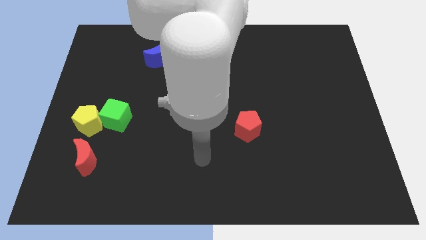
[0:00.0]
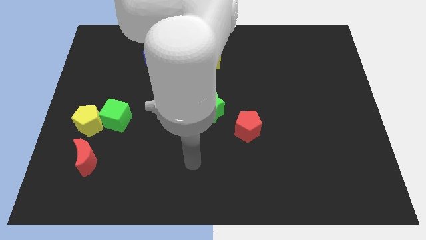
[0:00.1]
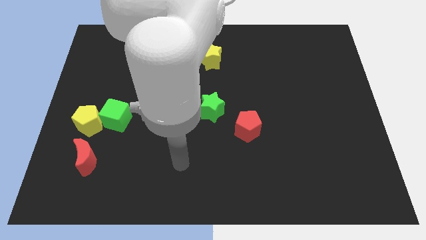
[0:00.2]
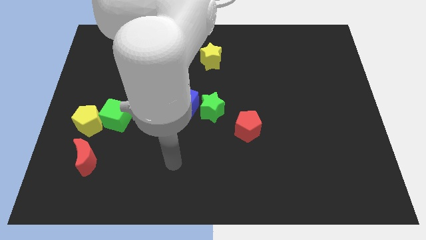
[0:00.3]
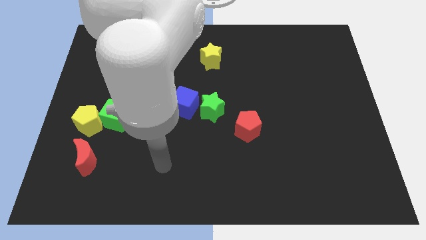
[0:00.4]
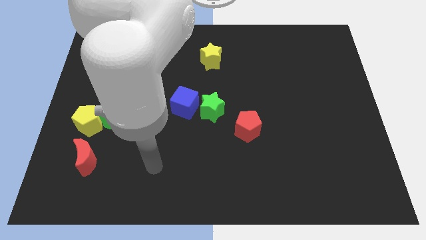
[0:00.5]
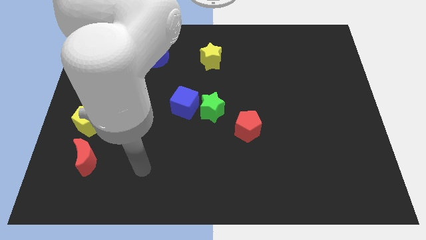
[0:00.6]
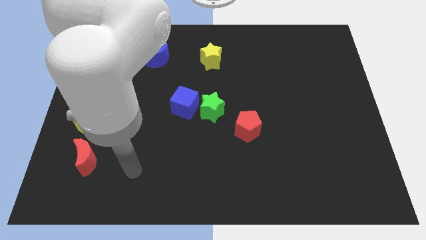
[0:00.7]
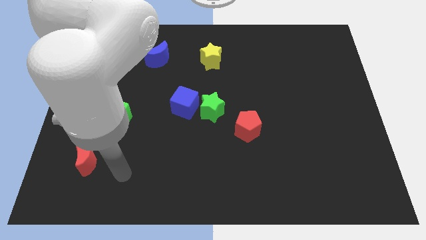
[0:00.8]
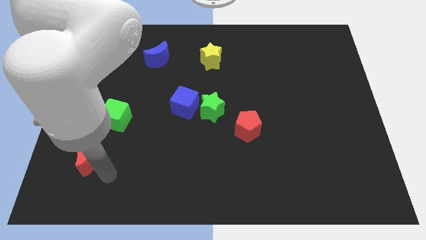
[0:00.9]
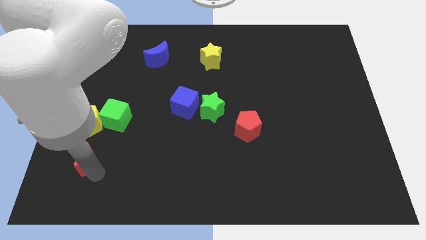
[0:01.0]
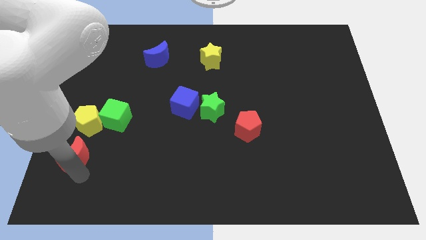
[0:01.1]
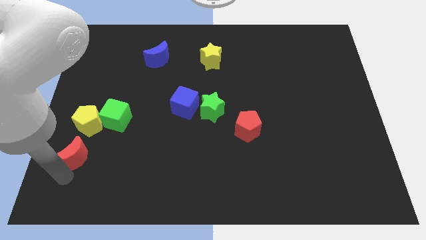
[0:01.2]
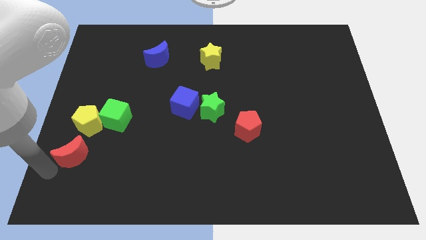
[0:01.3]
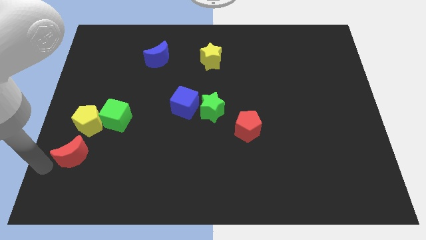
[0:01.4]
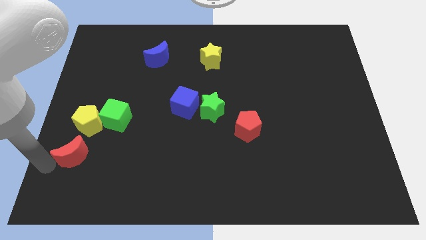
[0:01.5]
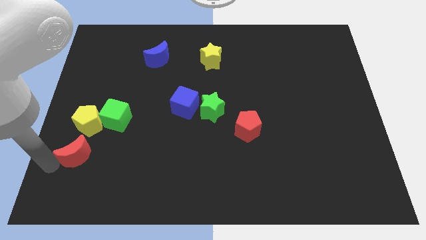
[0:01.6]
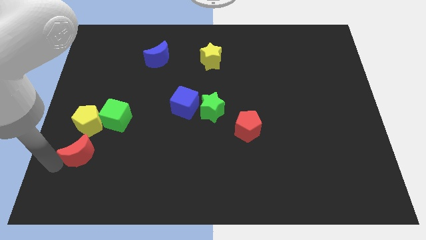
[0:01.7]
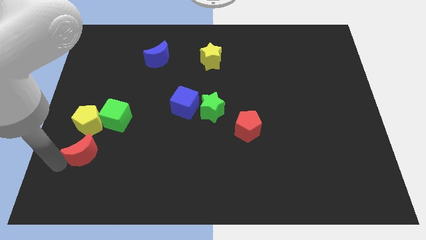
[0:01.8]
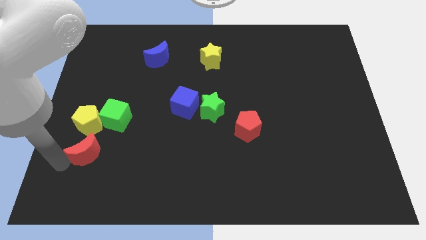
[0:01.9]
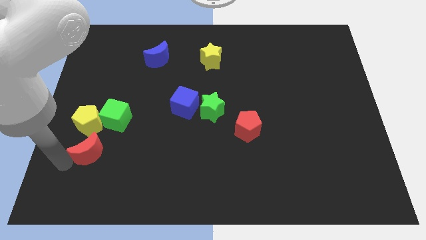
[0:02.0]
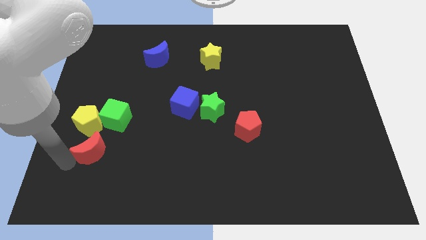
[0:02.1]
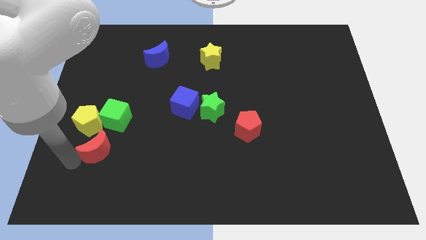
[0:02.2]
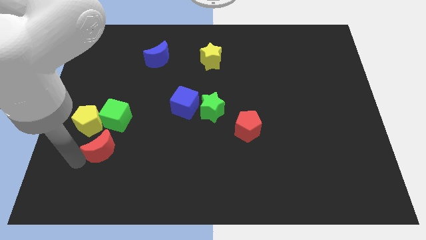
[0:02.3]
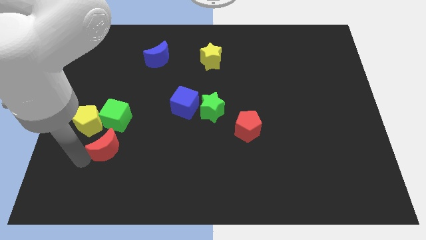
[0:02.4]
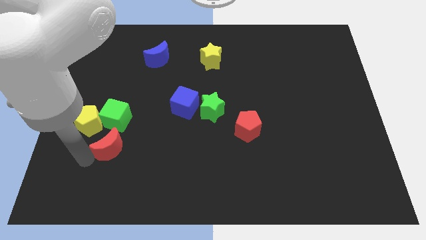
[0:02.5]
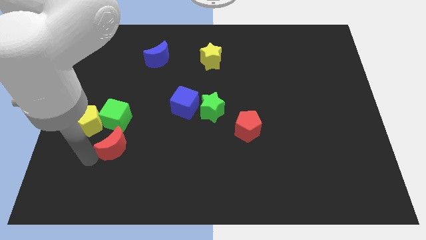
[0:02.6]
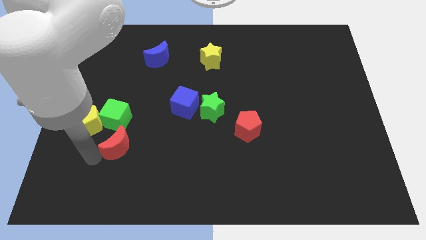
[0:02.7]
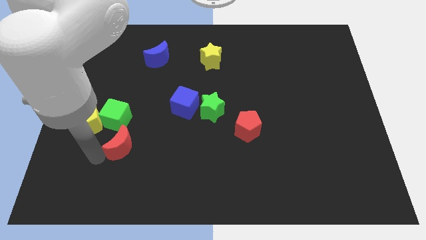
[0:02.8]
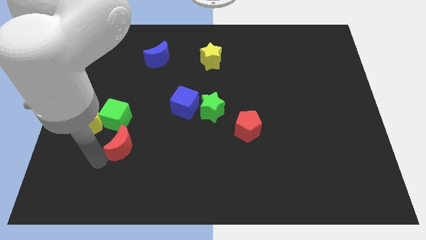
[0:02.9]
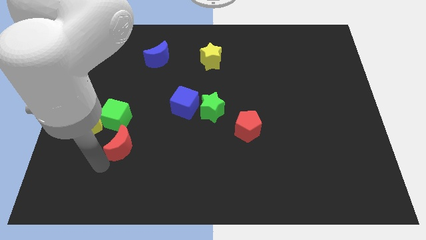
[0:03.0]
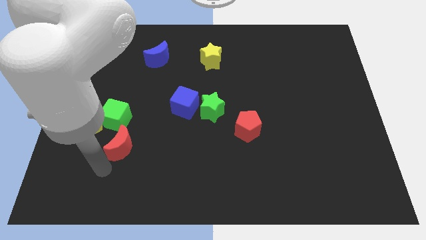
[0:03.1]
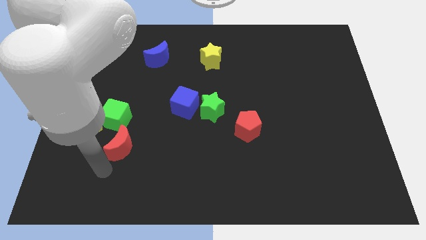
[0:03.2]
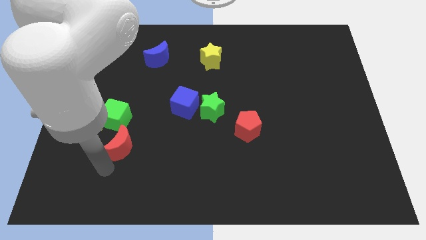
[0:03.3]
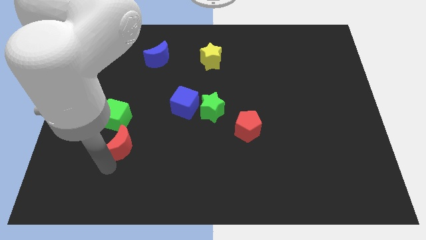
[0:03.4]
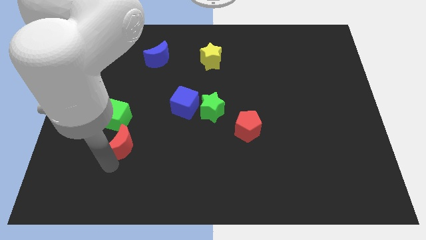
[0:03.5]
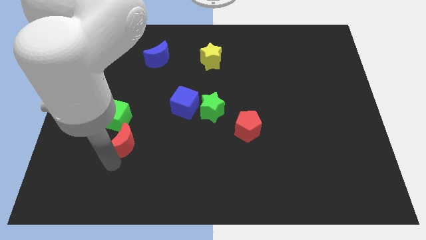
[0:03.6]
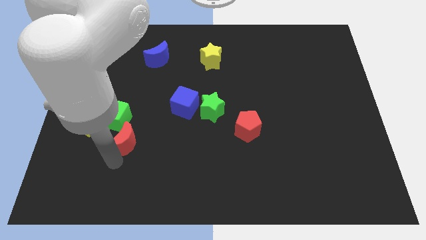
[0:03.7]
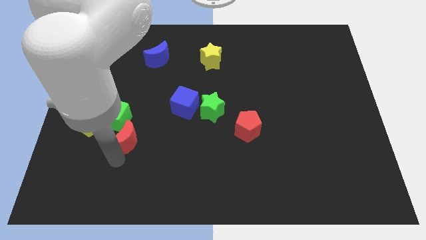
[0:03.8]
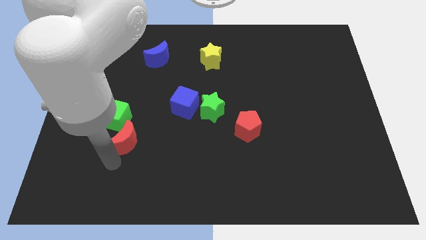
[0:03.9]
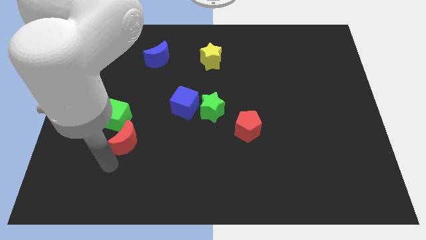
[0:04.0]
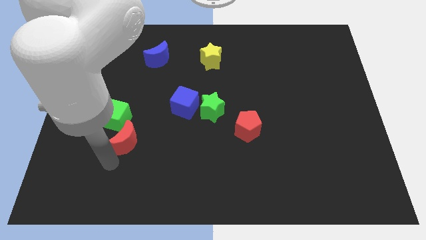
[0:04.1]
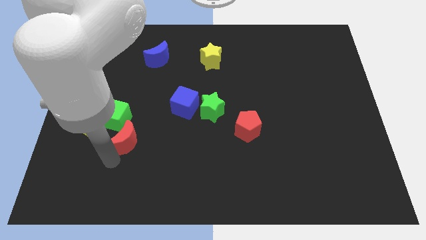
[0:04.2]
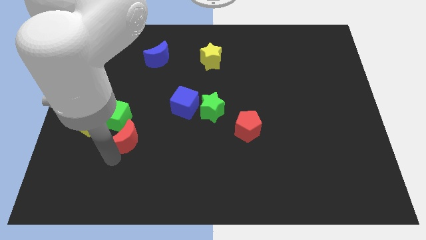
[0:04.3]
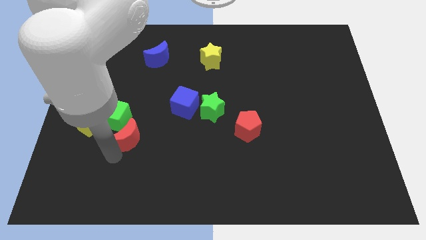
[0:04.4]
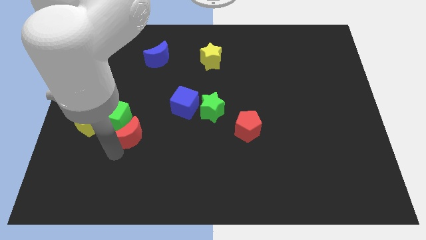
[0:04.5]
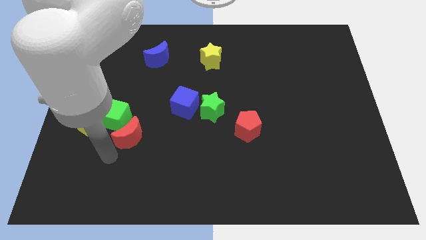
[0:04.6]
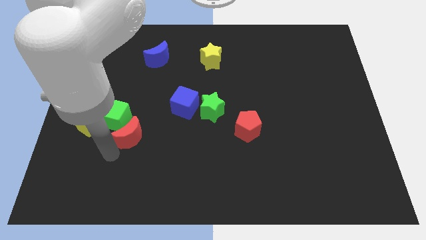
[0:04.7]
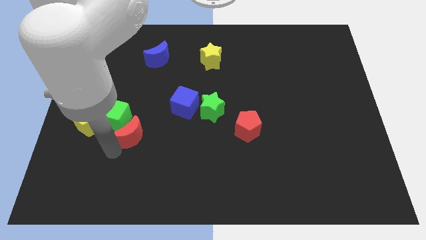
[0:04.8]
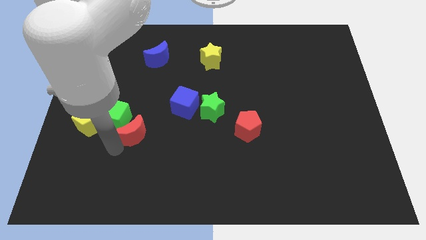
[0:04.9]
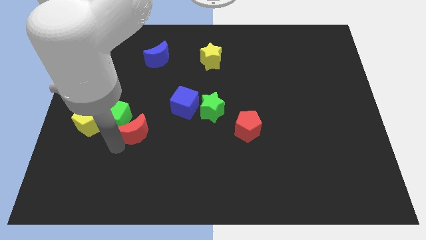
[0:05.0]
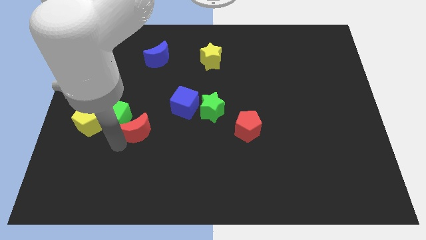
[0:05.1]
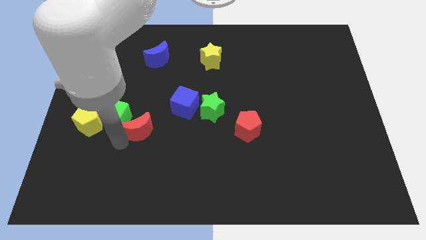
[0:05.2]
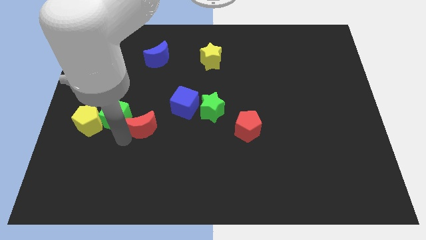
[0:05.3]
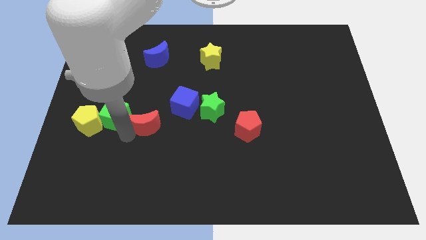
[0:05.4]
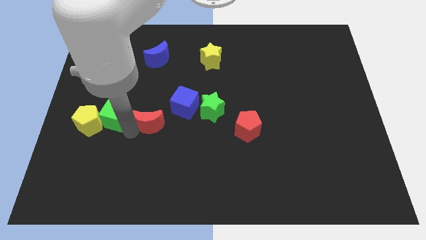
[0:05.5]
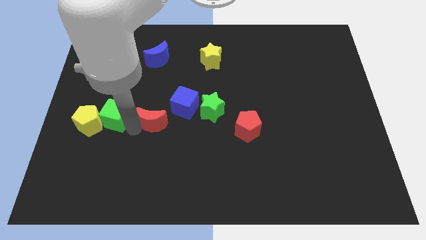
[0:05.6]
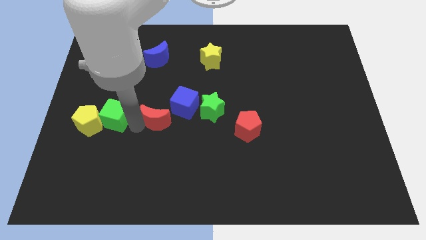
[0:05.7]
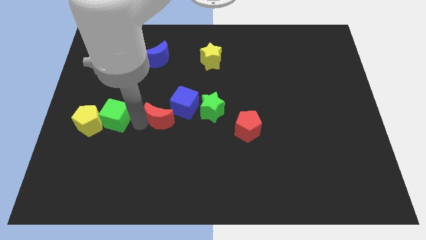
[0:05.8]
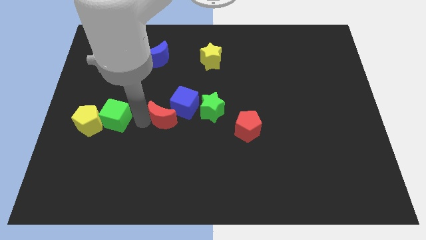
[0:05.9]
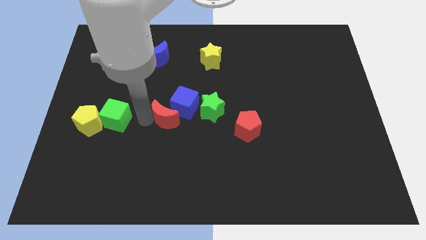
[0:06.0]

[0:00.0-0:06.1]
move the red moon towards the blue cube

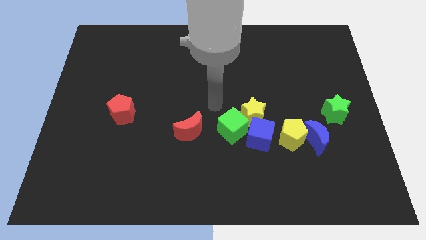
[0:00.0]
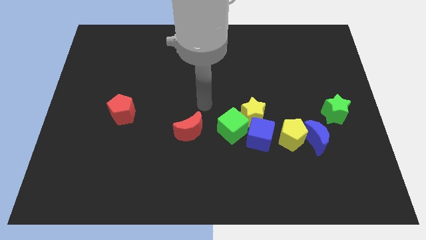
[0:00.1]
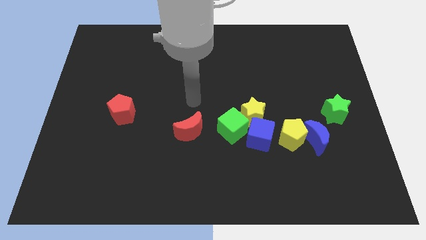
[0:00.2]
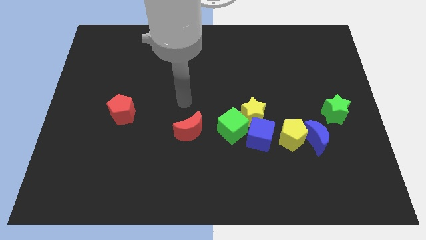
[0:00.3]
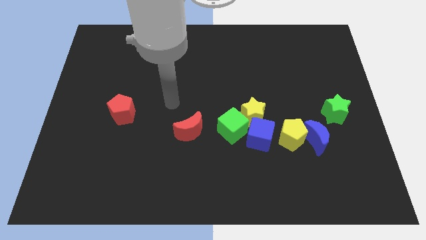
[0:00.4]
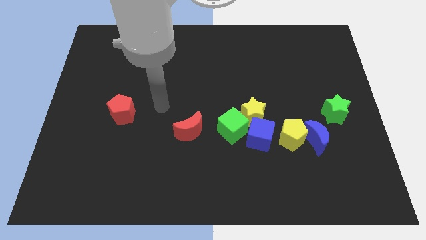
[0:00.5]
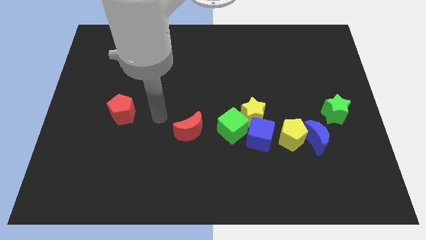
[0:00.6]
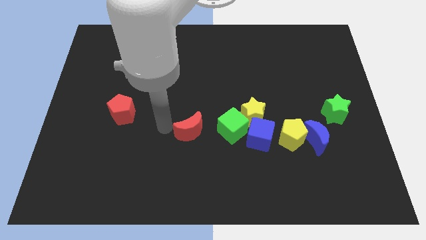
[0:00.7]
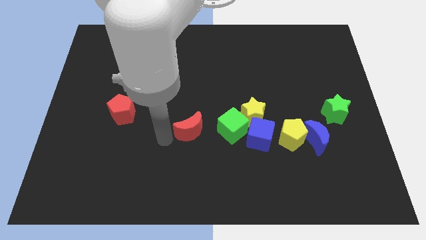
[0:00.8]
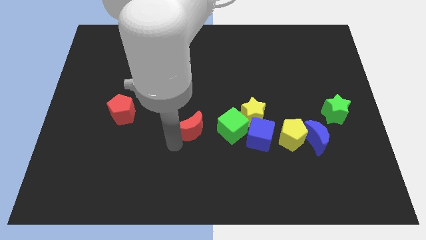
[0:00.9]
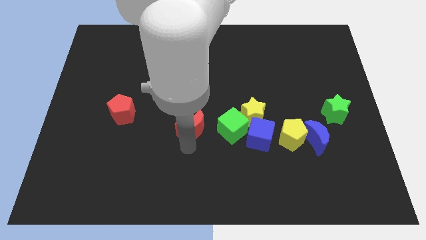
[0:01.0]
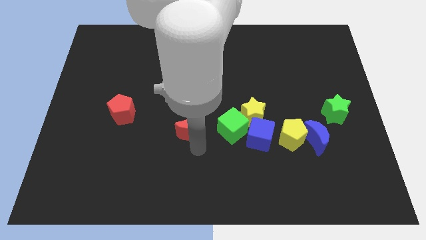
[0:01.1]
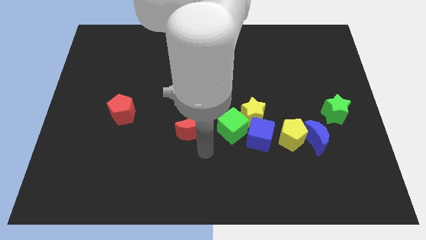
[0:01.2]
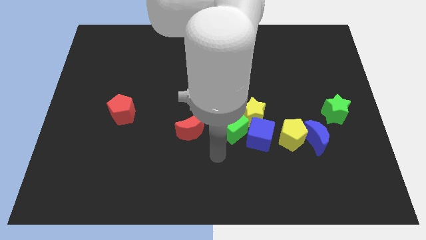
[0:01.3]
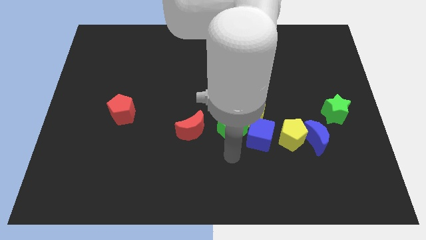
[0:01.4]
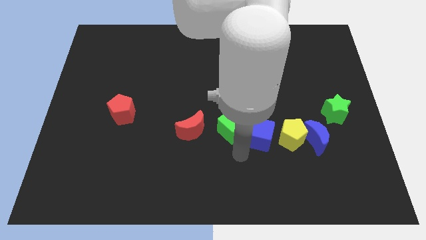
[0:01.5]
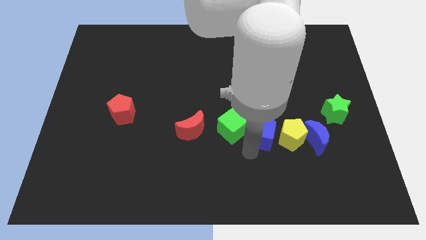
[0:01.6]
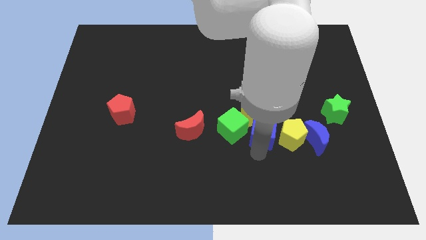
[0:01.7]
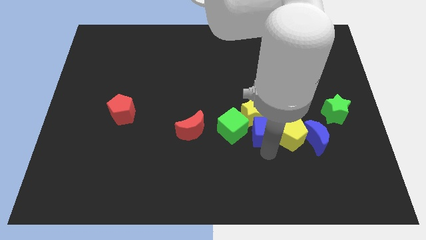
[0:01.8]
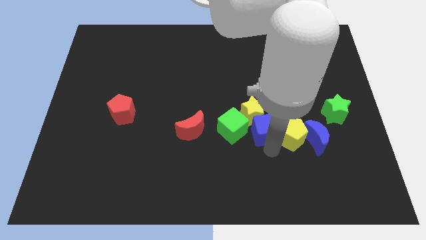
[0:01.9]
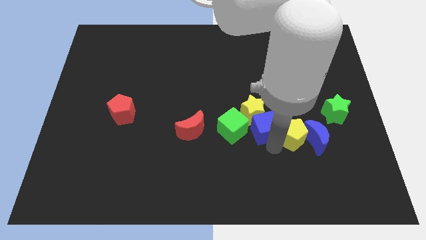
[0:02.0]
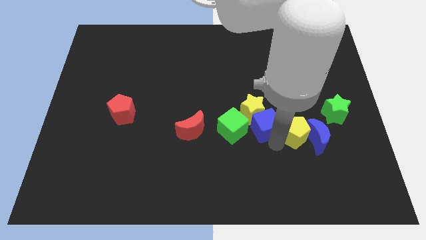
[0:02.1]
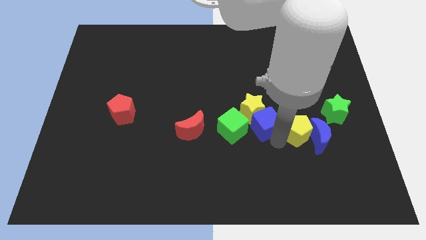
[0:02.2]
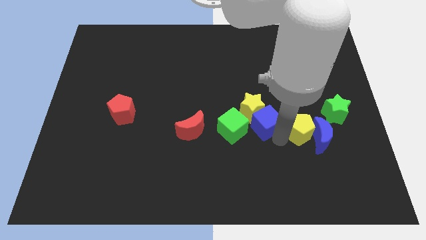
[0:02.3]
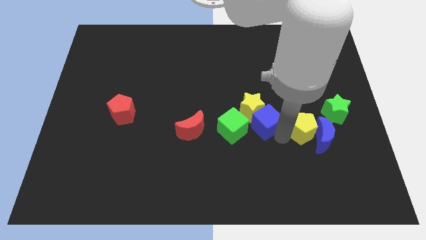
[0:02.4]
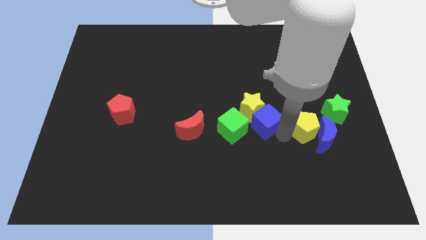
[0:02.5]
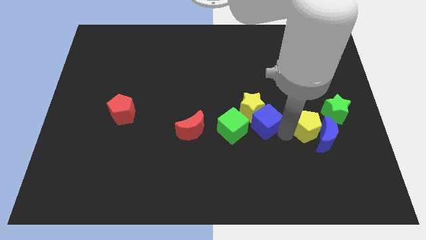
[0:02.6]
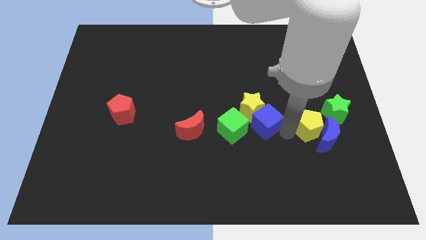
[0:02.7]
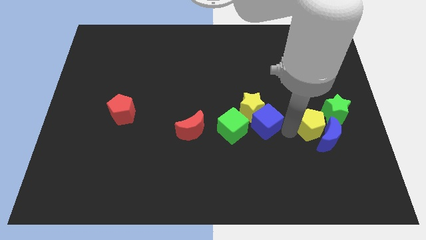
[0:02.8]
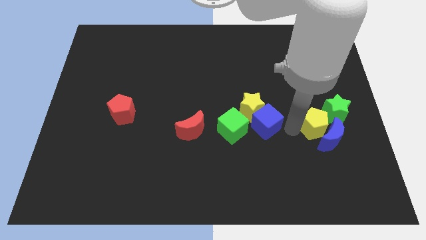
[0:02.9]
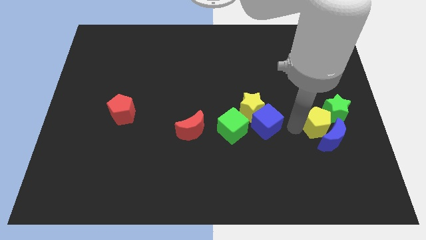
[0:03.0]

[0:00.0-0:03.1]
put the yellow pentagon next to the green star
